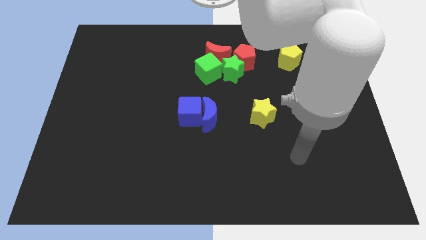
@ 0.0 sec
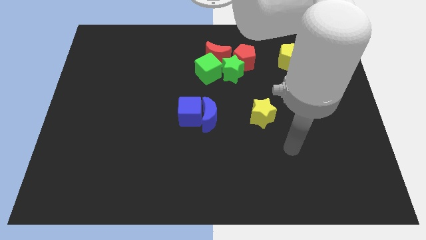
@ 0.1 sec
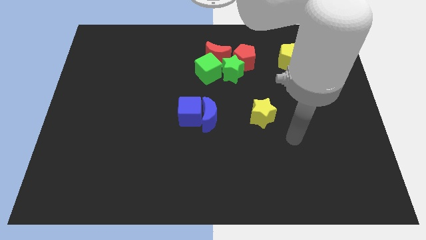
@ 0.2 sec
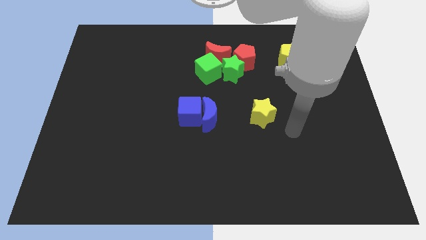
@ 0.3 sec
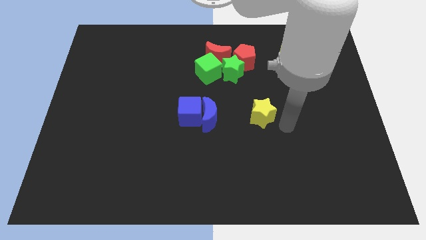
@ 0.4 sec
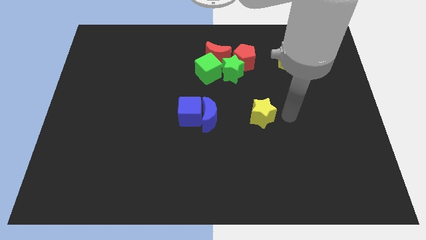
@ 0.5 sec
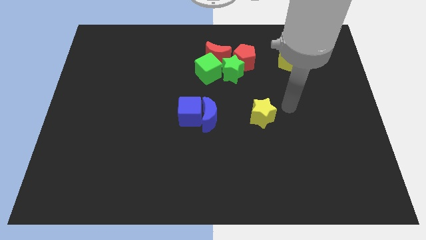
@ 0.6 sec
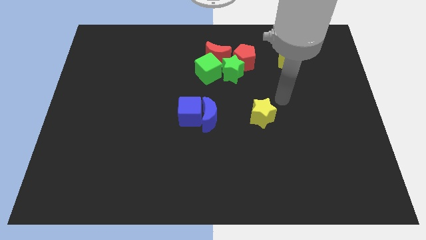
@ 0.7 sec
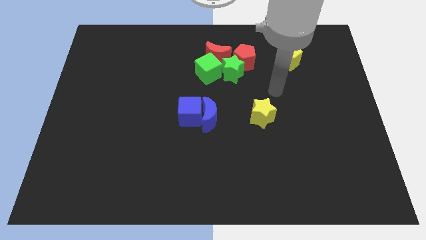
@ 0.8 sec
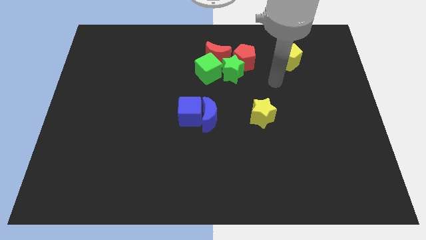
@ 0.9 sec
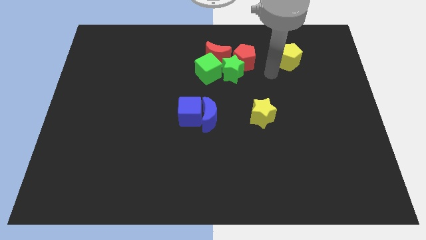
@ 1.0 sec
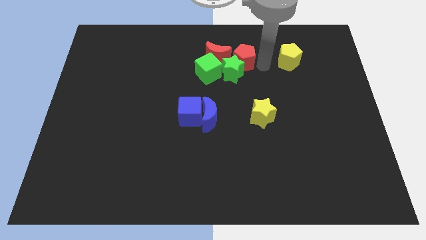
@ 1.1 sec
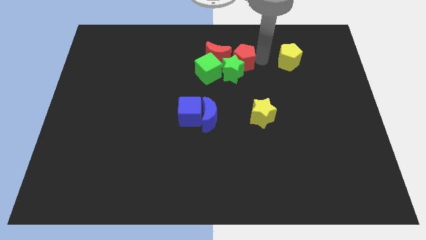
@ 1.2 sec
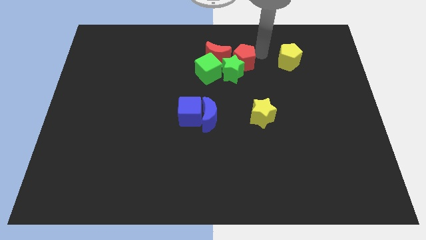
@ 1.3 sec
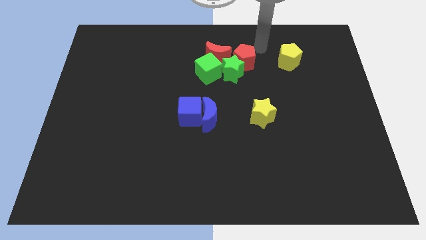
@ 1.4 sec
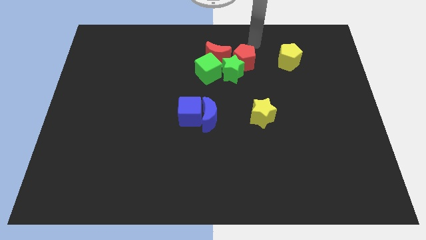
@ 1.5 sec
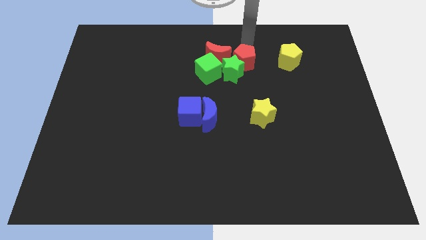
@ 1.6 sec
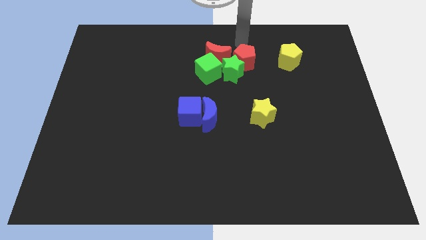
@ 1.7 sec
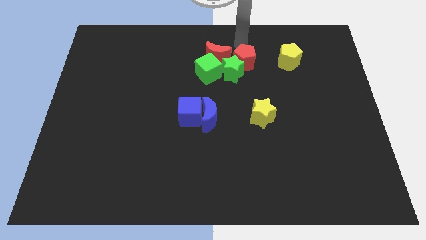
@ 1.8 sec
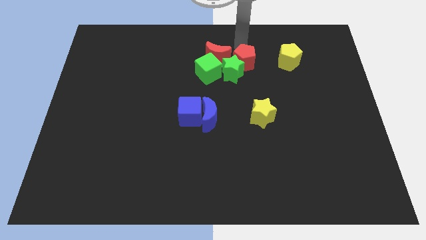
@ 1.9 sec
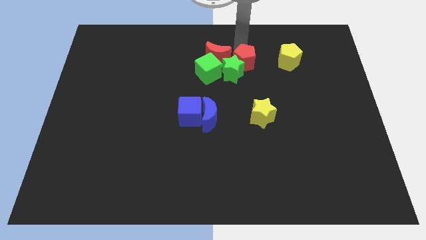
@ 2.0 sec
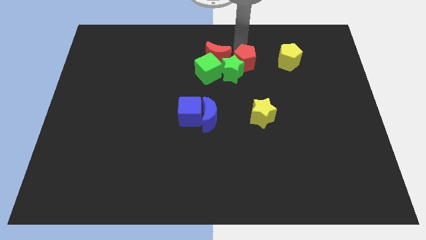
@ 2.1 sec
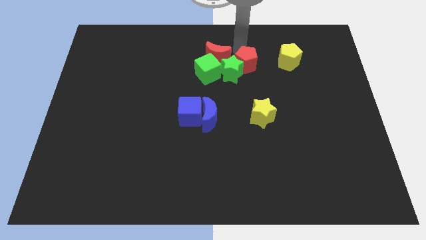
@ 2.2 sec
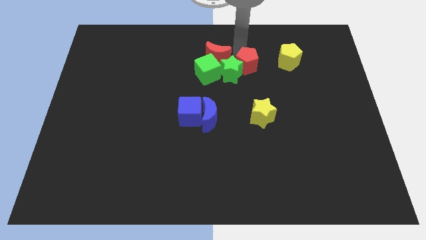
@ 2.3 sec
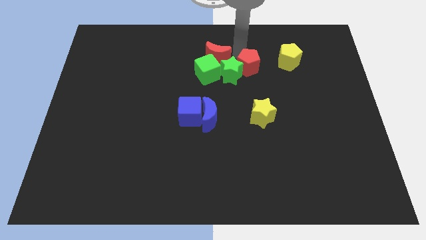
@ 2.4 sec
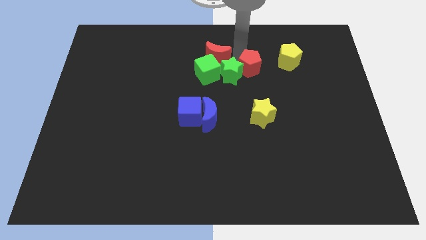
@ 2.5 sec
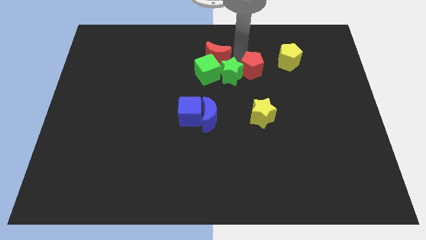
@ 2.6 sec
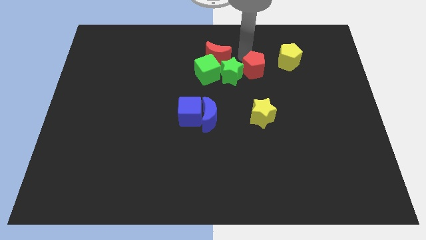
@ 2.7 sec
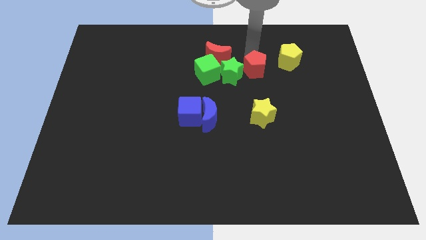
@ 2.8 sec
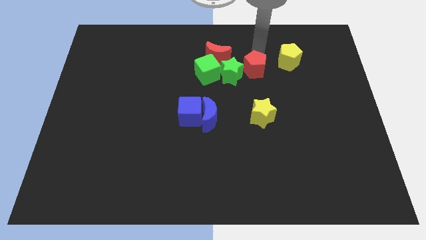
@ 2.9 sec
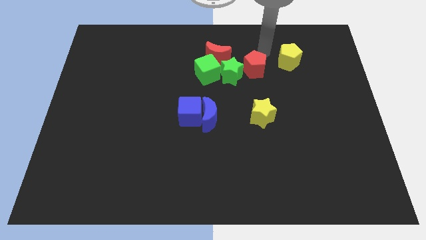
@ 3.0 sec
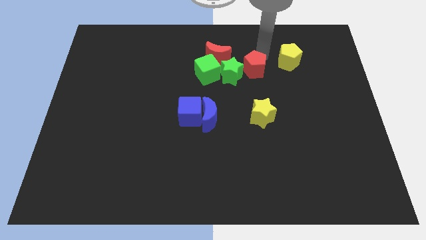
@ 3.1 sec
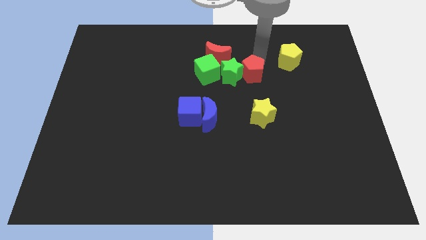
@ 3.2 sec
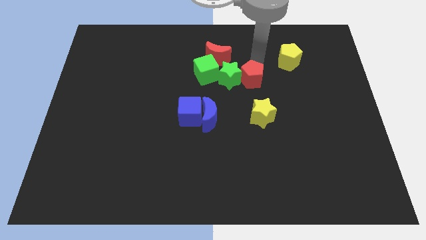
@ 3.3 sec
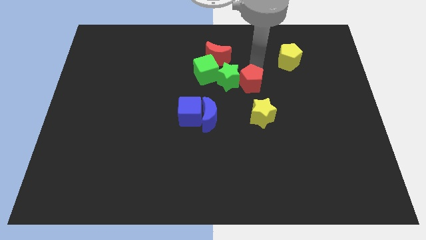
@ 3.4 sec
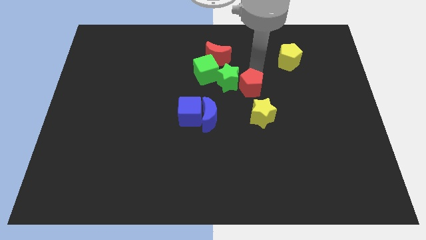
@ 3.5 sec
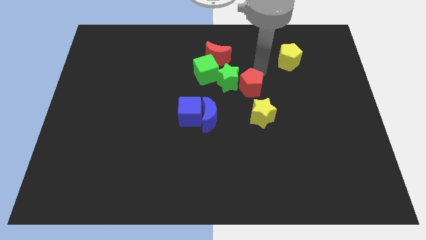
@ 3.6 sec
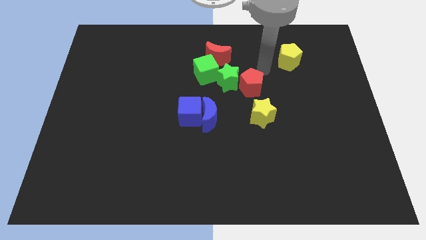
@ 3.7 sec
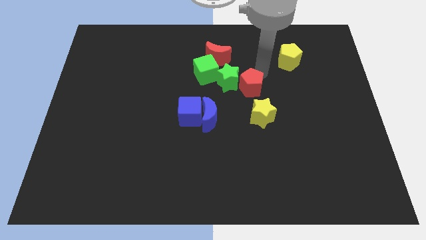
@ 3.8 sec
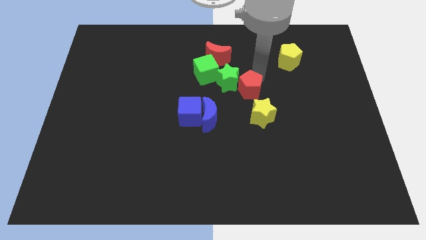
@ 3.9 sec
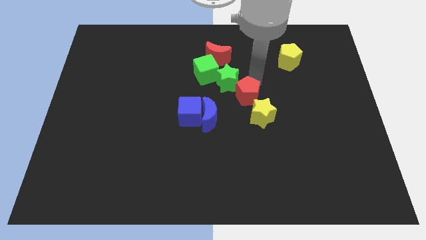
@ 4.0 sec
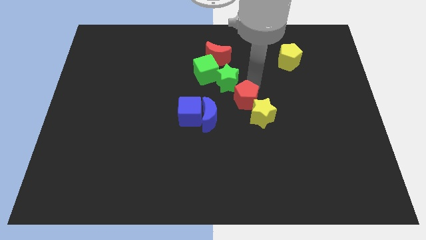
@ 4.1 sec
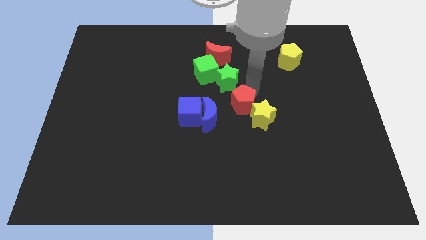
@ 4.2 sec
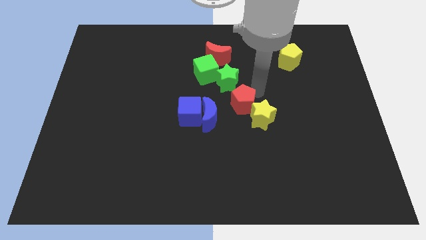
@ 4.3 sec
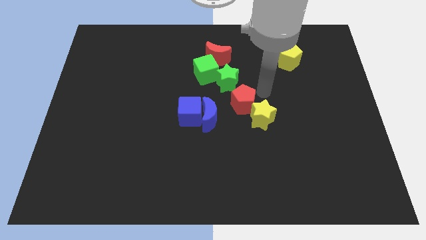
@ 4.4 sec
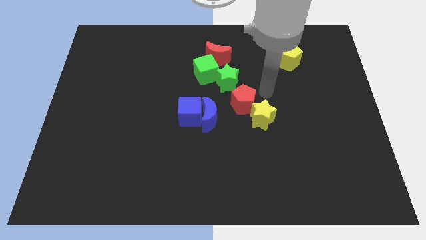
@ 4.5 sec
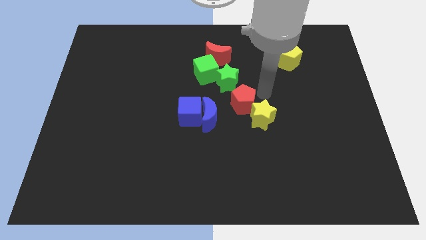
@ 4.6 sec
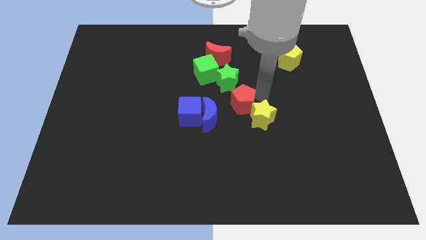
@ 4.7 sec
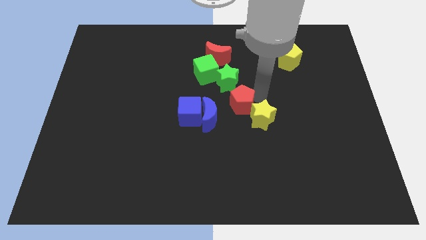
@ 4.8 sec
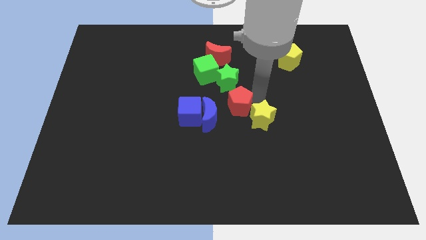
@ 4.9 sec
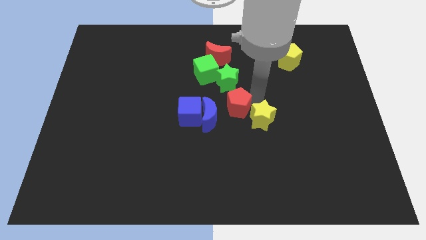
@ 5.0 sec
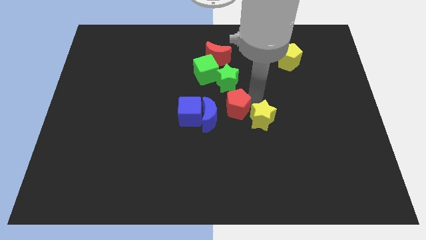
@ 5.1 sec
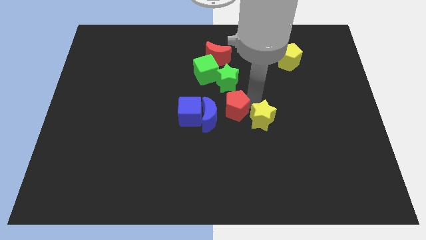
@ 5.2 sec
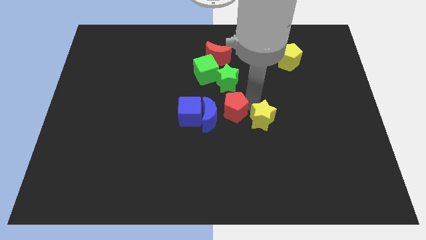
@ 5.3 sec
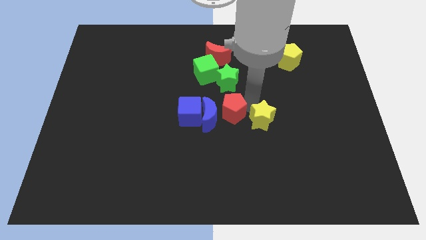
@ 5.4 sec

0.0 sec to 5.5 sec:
push the red pentagon towards the blue moon

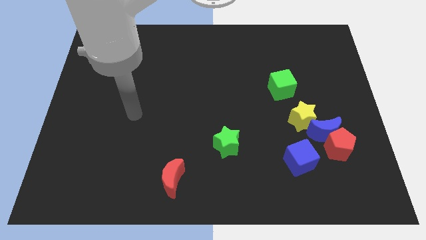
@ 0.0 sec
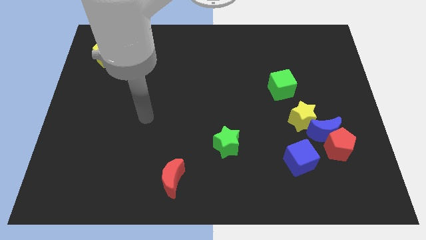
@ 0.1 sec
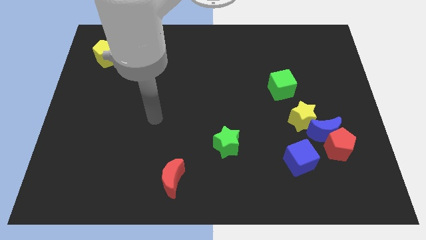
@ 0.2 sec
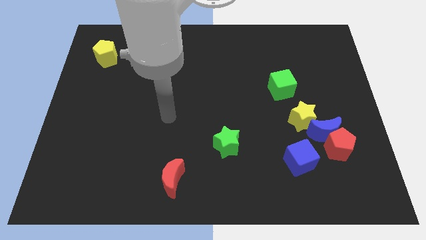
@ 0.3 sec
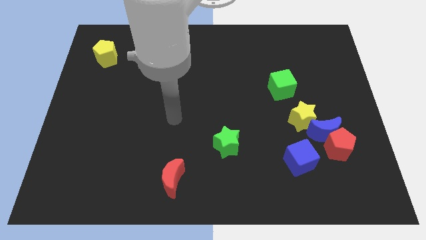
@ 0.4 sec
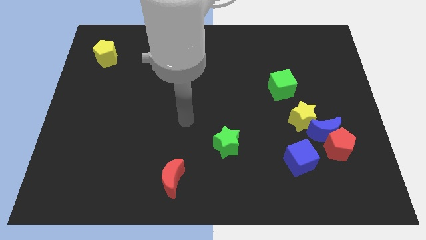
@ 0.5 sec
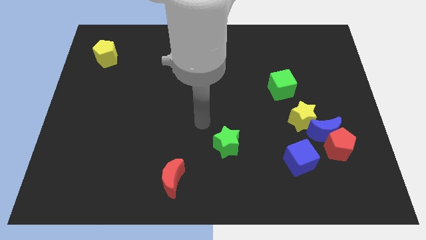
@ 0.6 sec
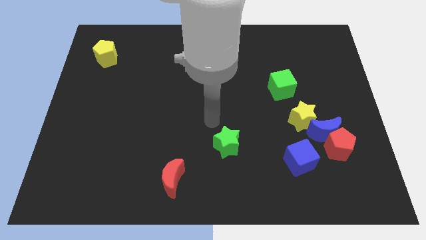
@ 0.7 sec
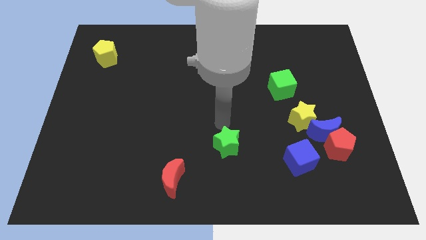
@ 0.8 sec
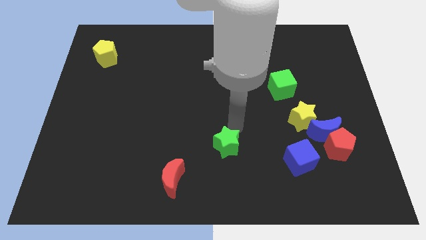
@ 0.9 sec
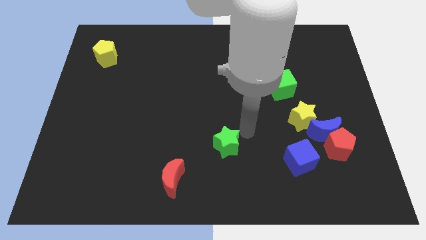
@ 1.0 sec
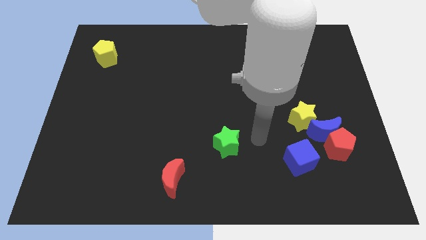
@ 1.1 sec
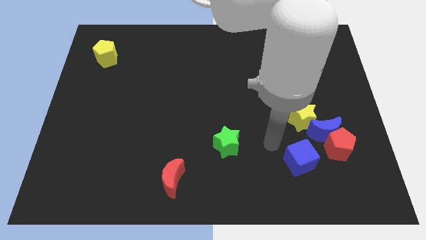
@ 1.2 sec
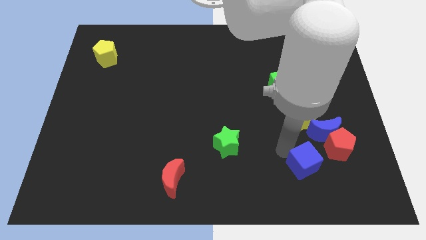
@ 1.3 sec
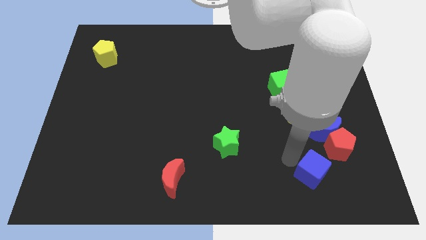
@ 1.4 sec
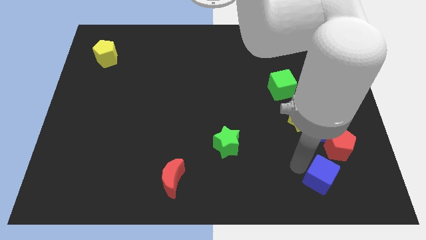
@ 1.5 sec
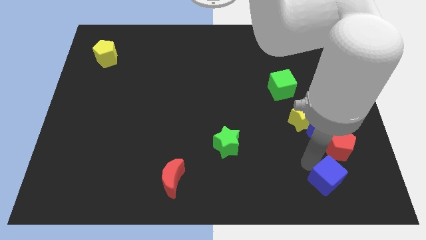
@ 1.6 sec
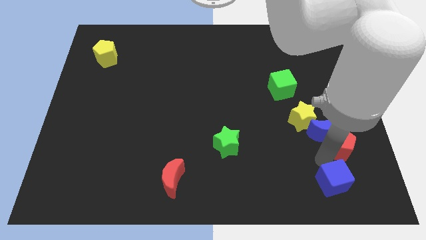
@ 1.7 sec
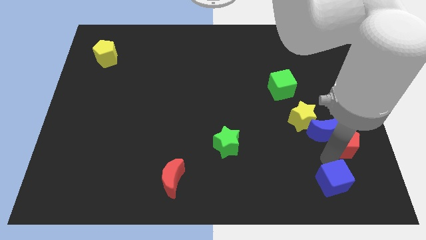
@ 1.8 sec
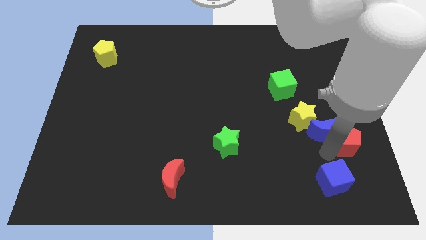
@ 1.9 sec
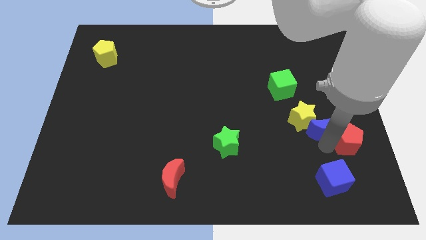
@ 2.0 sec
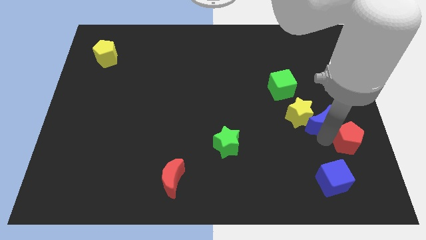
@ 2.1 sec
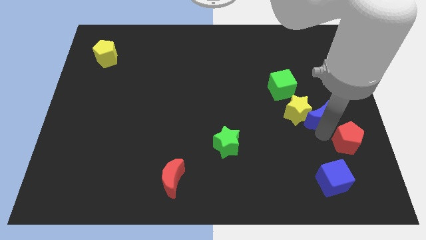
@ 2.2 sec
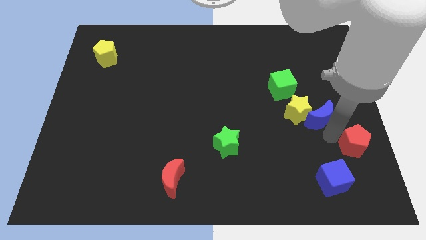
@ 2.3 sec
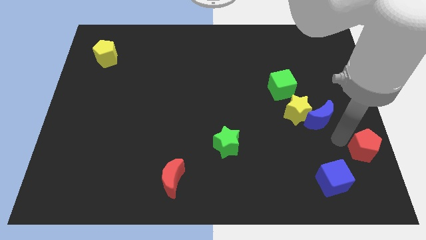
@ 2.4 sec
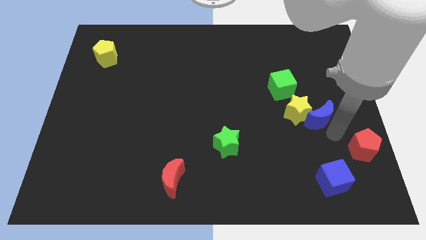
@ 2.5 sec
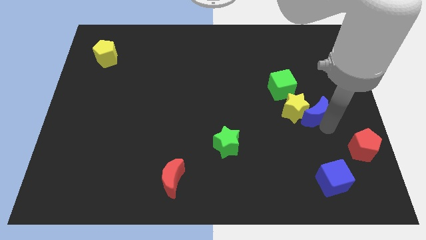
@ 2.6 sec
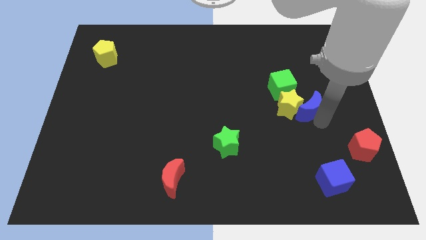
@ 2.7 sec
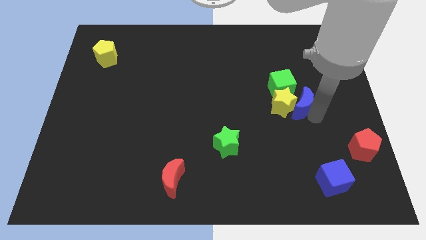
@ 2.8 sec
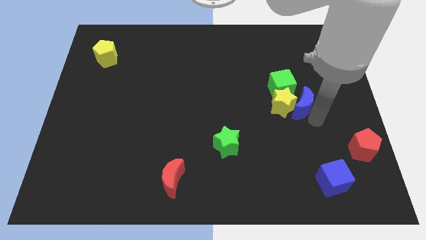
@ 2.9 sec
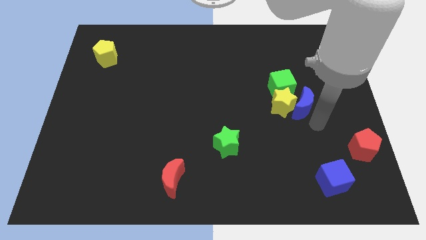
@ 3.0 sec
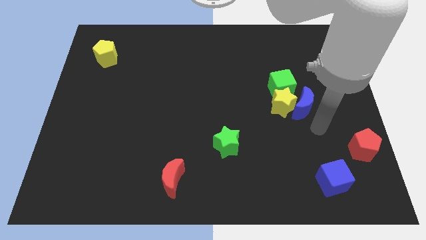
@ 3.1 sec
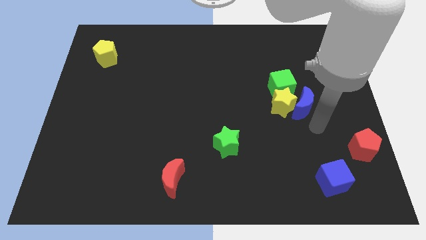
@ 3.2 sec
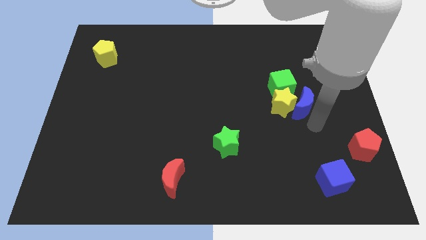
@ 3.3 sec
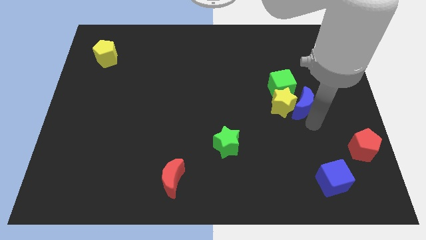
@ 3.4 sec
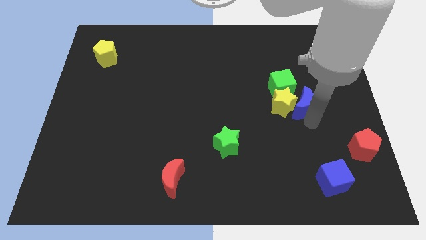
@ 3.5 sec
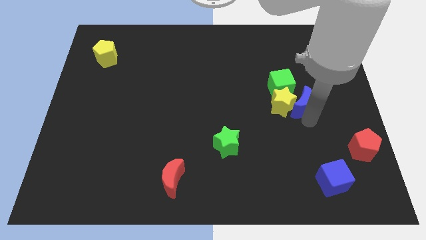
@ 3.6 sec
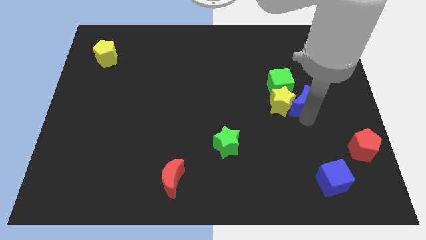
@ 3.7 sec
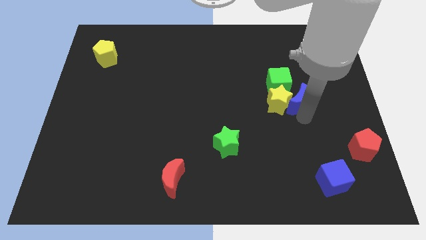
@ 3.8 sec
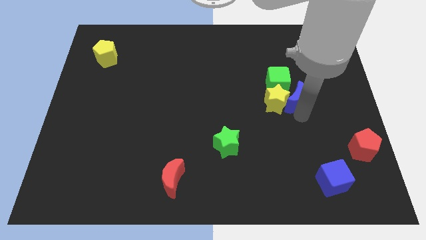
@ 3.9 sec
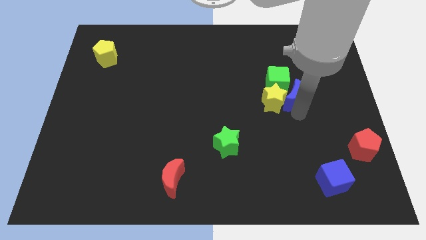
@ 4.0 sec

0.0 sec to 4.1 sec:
move the blue moon next to the green cube
